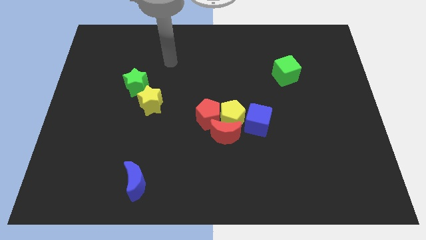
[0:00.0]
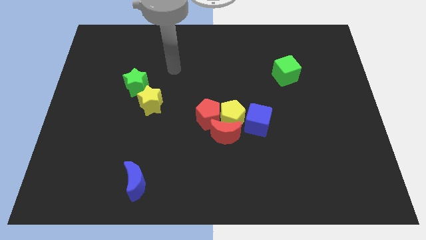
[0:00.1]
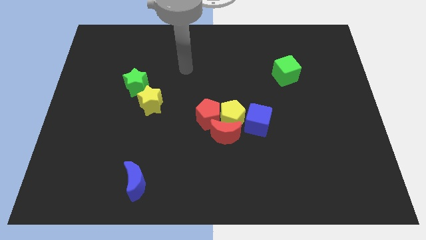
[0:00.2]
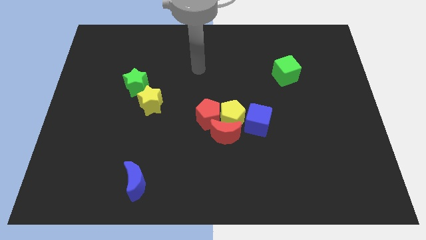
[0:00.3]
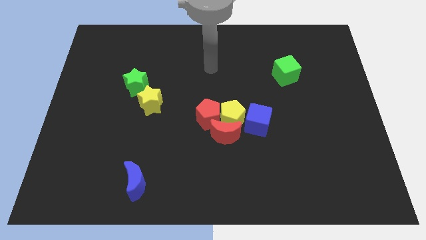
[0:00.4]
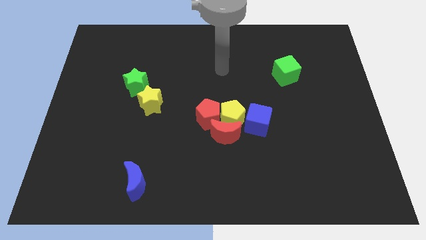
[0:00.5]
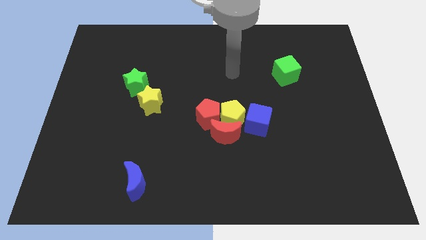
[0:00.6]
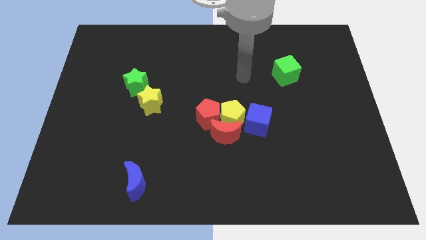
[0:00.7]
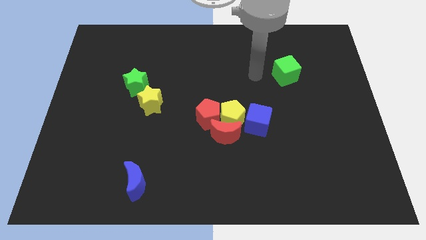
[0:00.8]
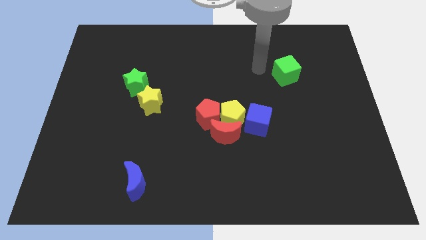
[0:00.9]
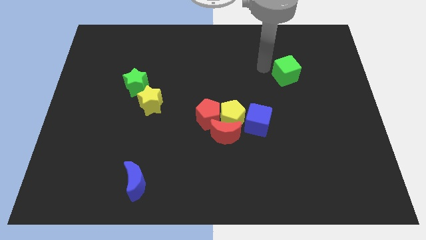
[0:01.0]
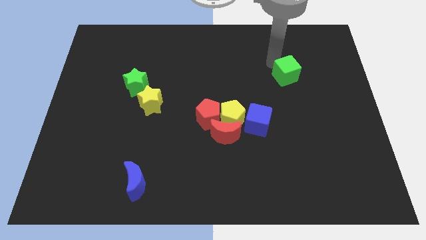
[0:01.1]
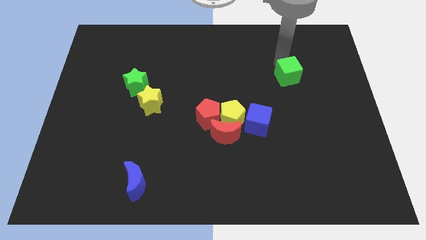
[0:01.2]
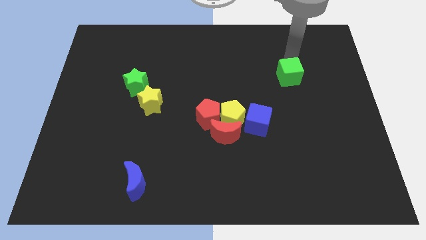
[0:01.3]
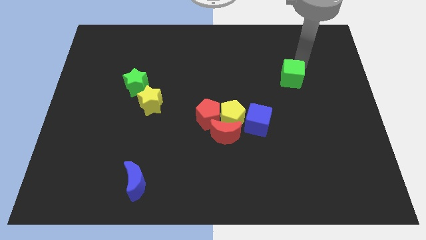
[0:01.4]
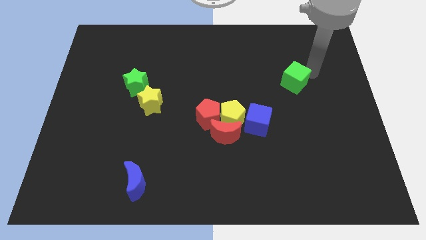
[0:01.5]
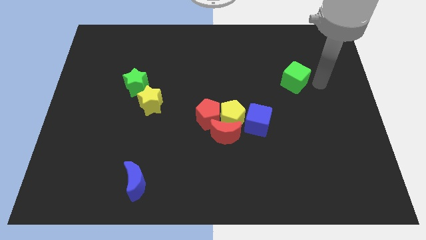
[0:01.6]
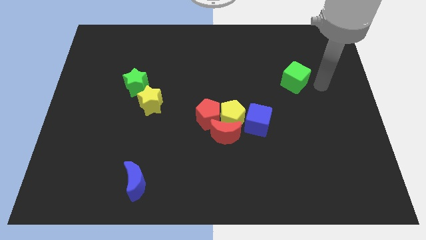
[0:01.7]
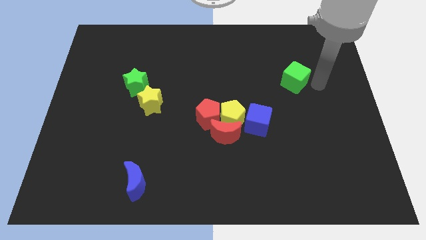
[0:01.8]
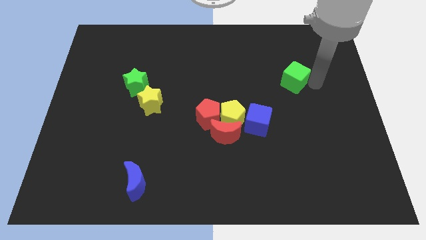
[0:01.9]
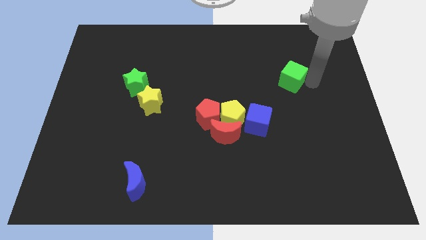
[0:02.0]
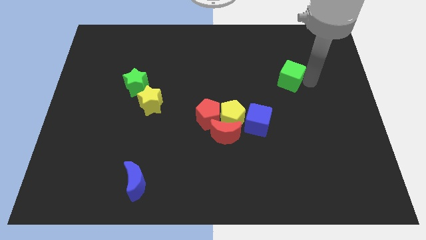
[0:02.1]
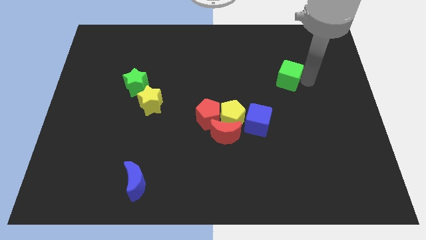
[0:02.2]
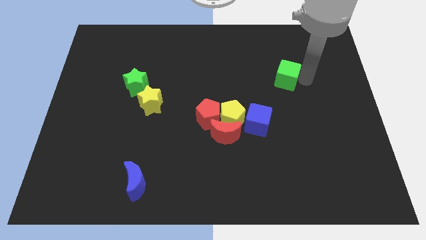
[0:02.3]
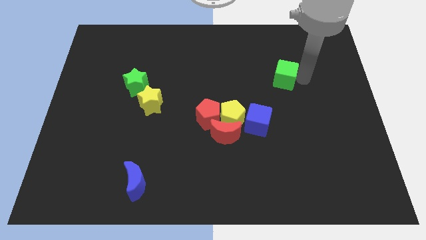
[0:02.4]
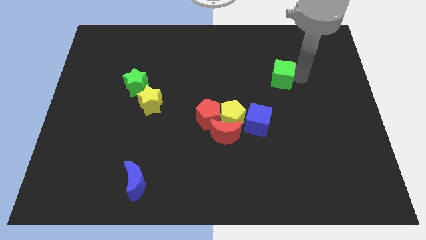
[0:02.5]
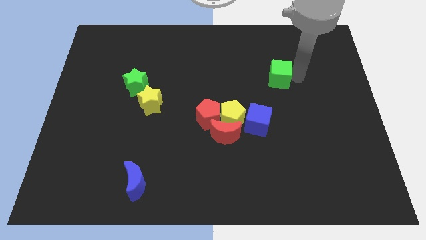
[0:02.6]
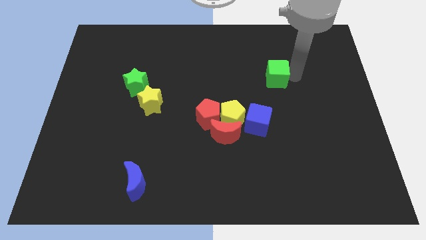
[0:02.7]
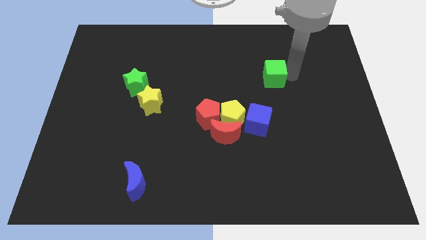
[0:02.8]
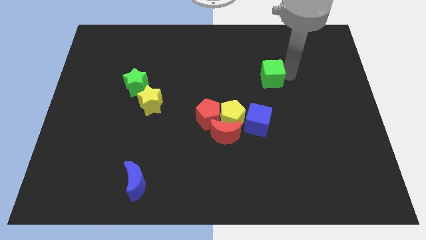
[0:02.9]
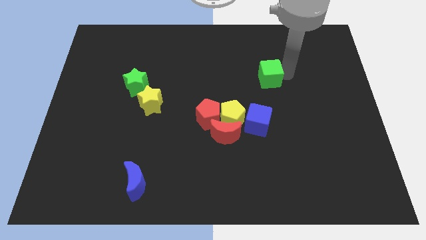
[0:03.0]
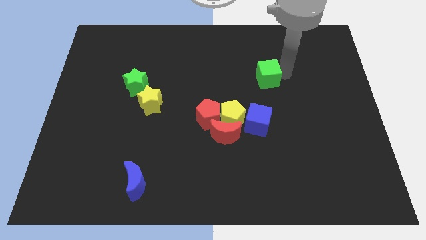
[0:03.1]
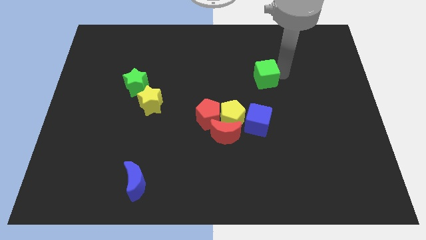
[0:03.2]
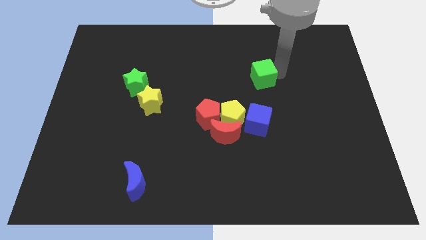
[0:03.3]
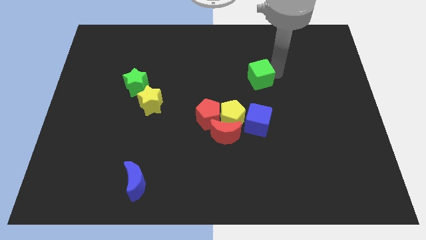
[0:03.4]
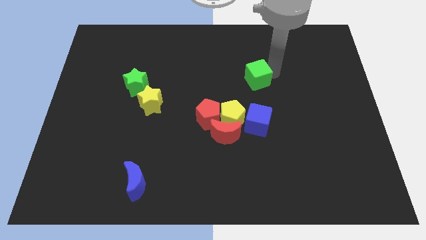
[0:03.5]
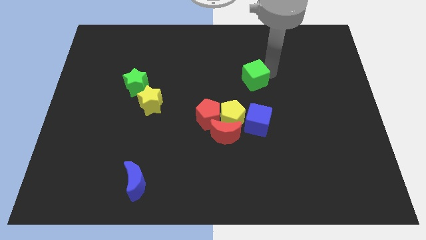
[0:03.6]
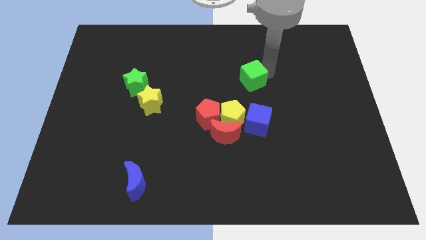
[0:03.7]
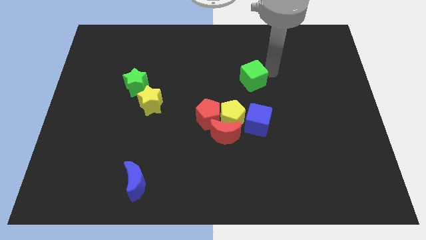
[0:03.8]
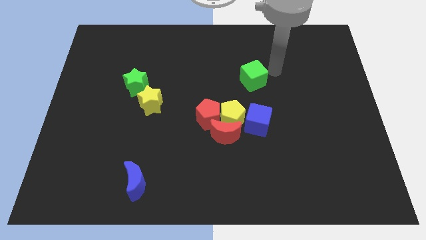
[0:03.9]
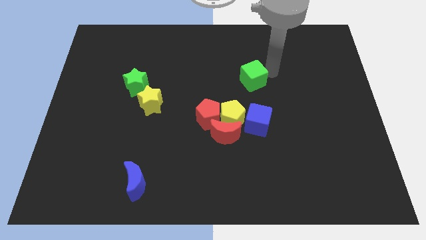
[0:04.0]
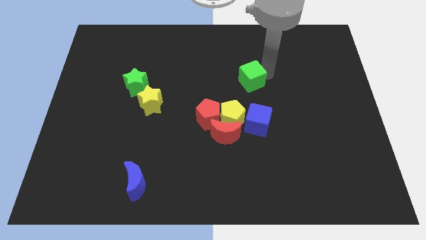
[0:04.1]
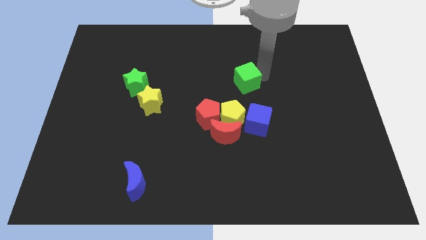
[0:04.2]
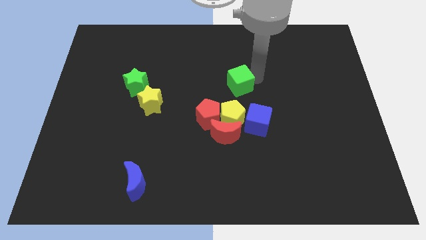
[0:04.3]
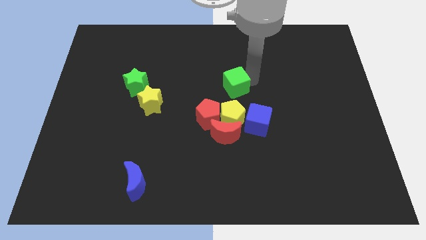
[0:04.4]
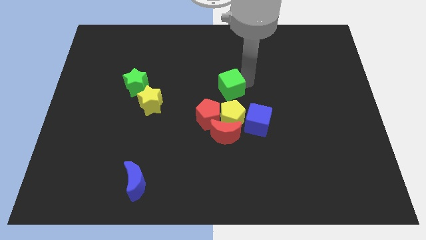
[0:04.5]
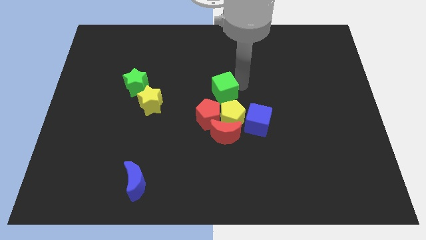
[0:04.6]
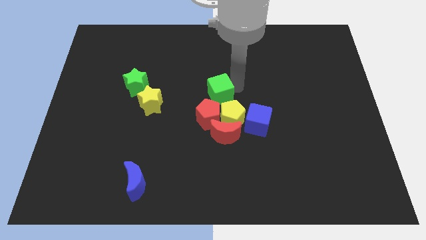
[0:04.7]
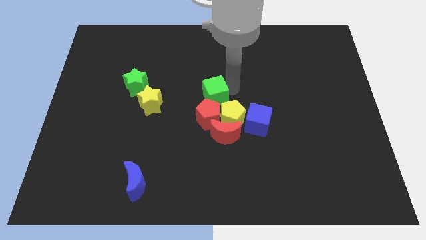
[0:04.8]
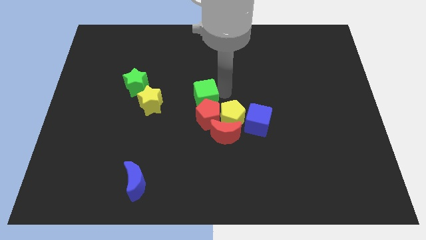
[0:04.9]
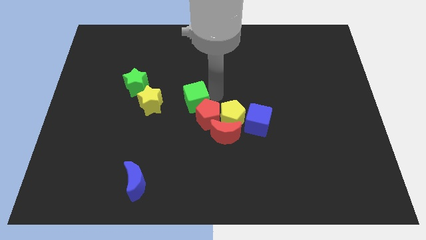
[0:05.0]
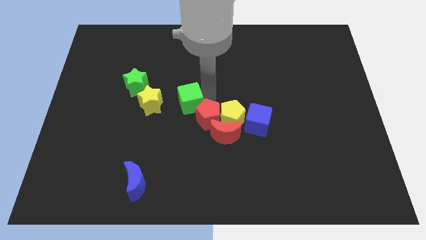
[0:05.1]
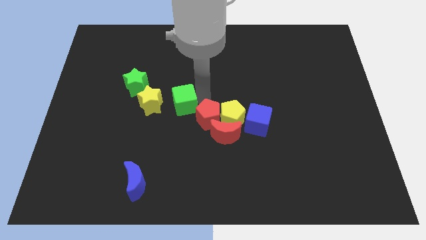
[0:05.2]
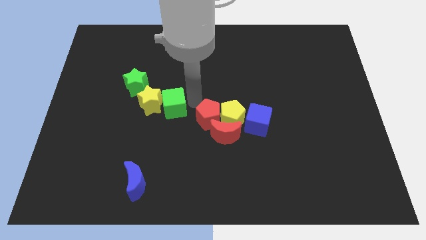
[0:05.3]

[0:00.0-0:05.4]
slide the green cube next to the yellow star

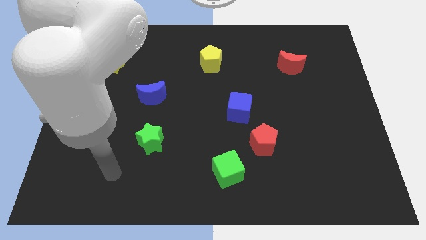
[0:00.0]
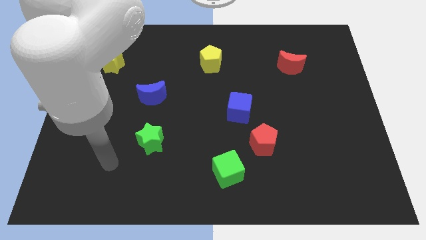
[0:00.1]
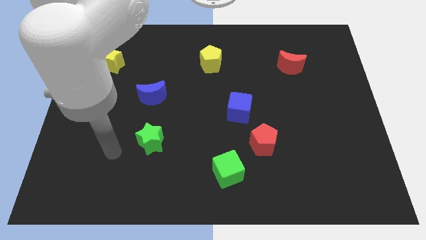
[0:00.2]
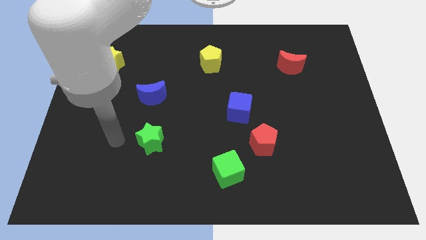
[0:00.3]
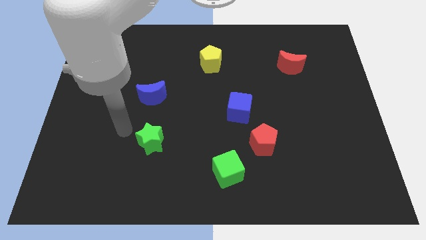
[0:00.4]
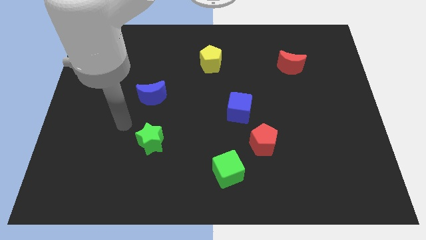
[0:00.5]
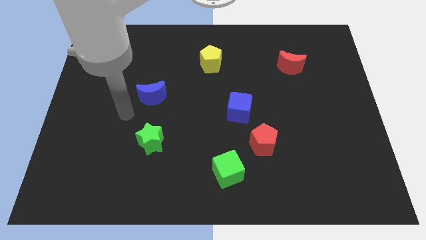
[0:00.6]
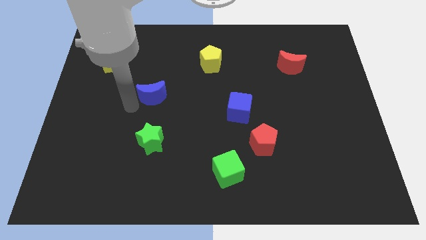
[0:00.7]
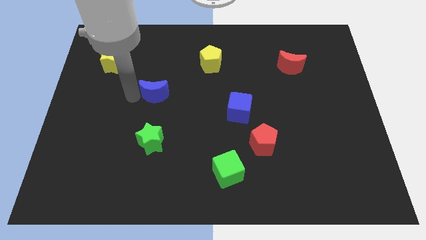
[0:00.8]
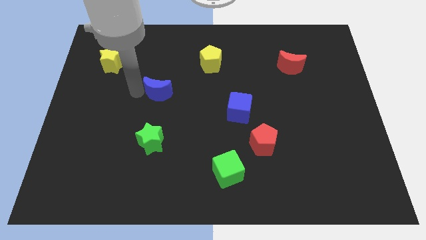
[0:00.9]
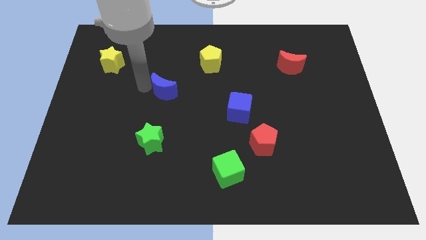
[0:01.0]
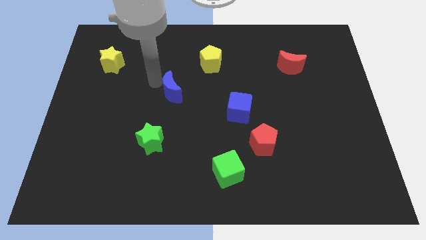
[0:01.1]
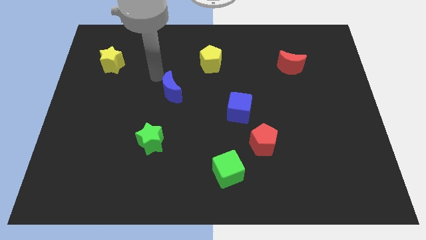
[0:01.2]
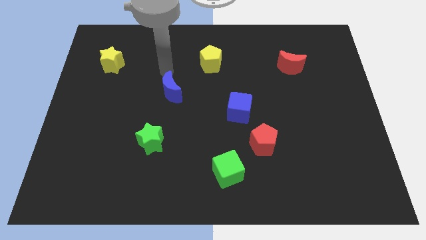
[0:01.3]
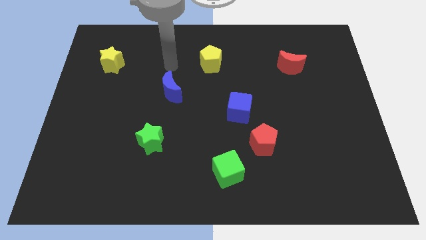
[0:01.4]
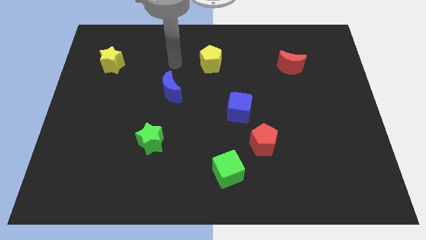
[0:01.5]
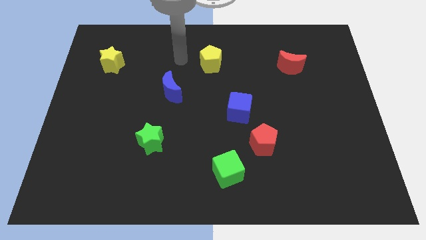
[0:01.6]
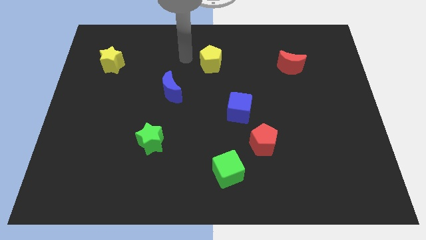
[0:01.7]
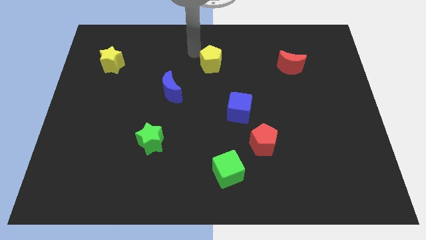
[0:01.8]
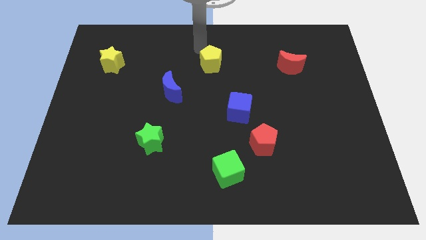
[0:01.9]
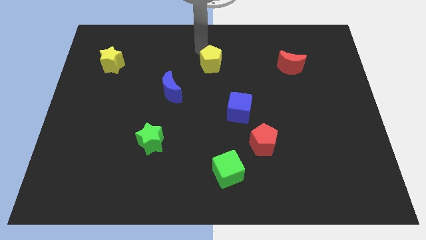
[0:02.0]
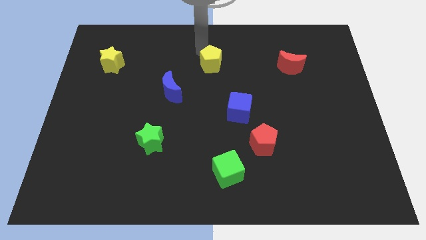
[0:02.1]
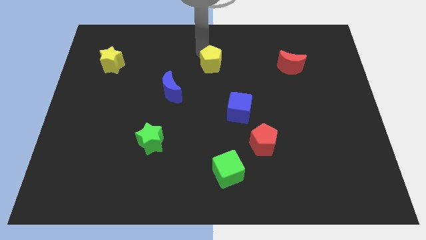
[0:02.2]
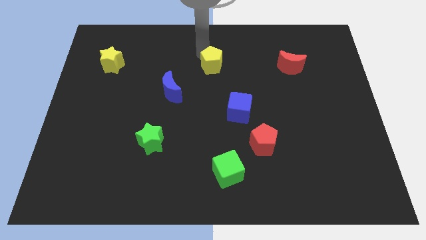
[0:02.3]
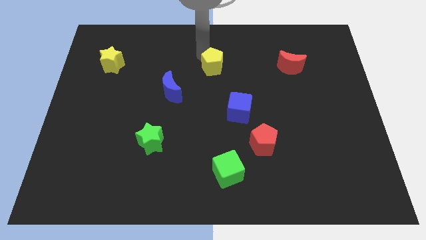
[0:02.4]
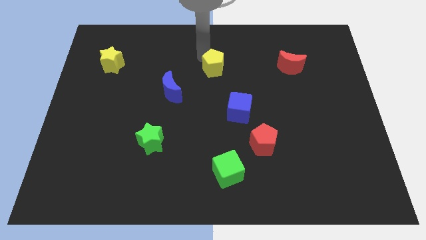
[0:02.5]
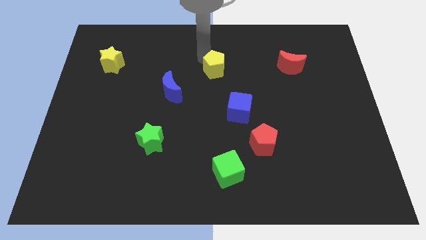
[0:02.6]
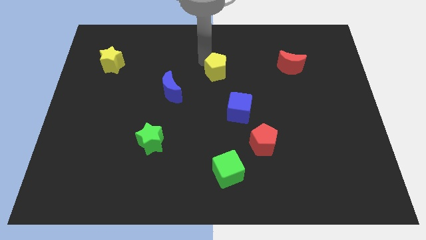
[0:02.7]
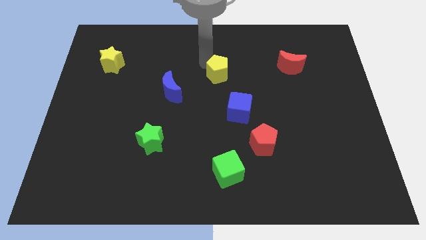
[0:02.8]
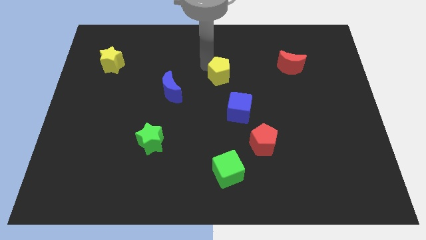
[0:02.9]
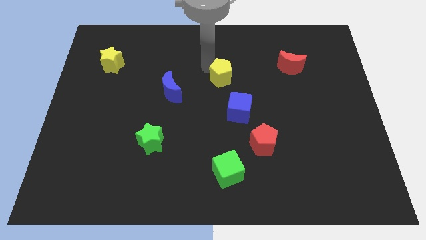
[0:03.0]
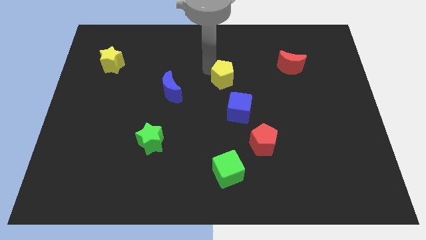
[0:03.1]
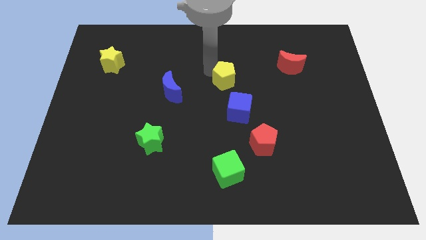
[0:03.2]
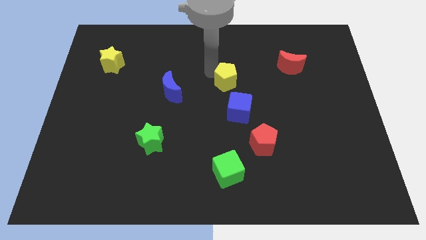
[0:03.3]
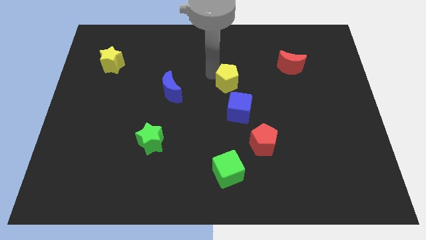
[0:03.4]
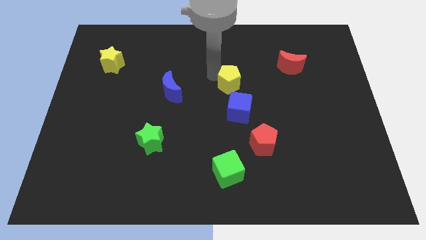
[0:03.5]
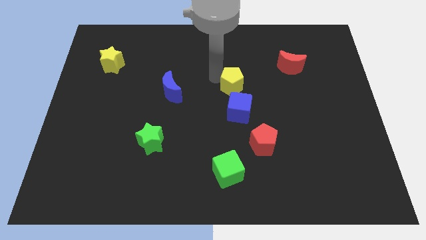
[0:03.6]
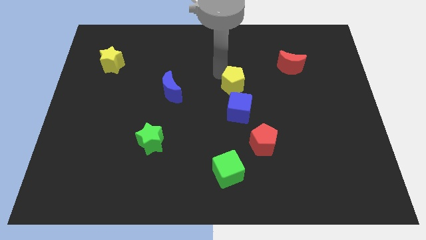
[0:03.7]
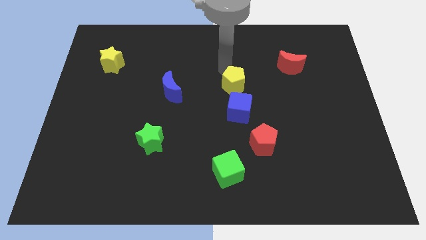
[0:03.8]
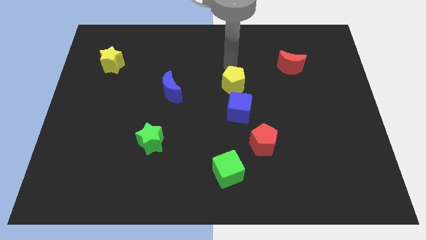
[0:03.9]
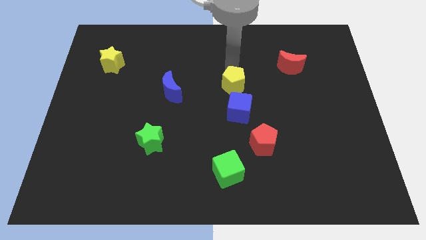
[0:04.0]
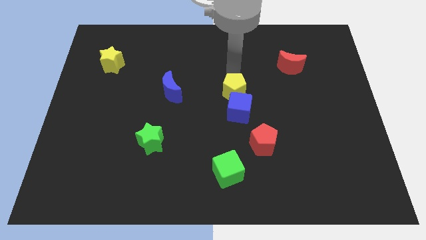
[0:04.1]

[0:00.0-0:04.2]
move the yellow pentagon close to the blue cube
